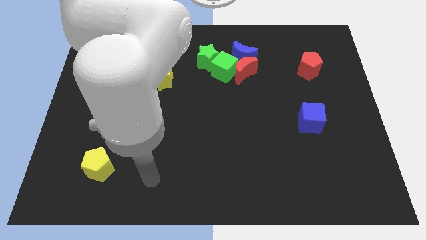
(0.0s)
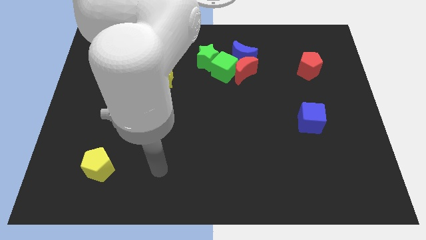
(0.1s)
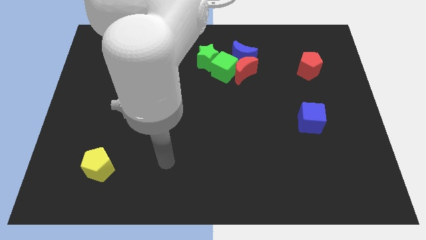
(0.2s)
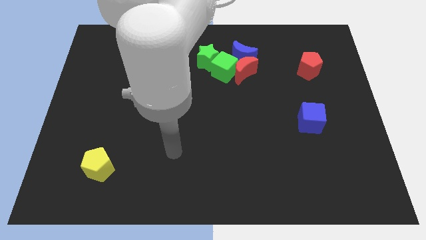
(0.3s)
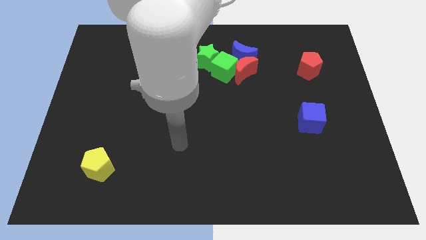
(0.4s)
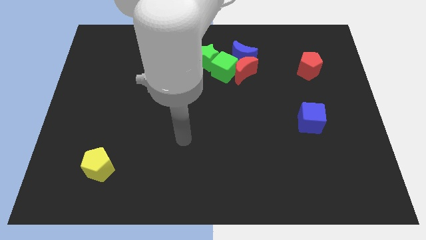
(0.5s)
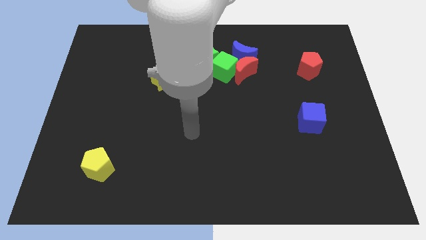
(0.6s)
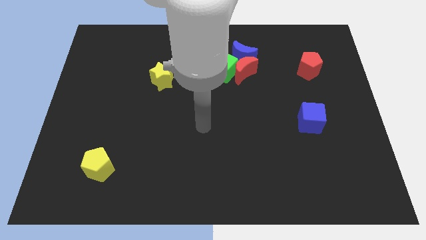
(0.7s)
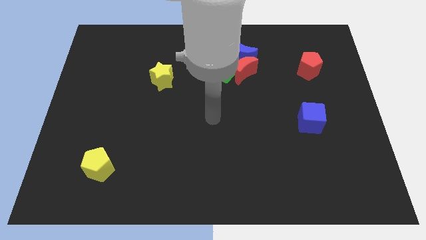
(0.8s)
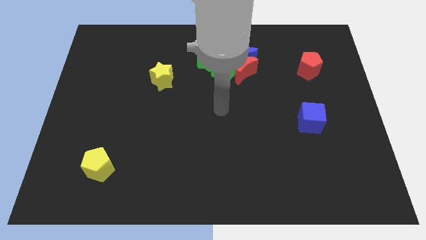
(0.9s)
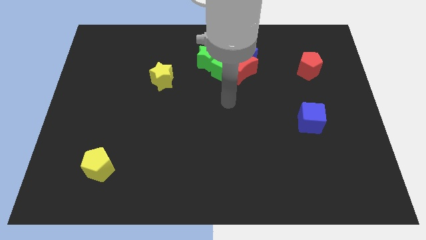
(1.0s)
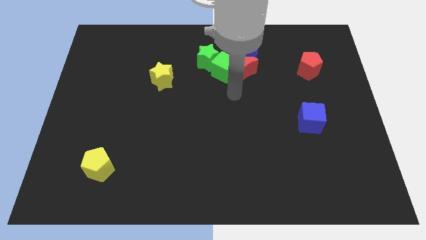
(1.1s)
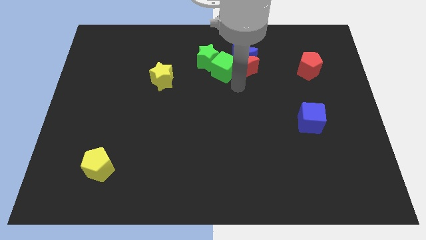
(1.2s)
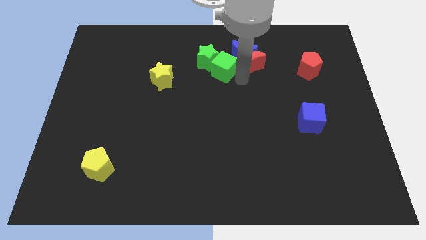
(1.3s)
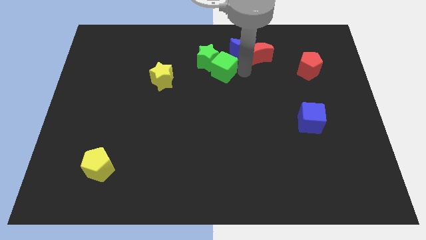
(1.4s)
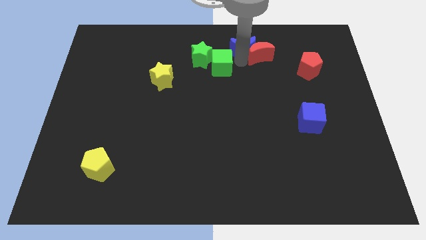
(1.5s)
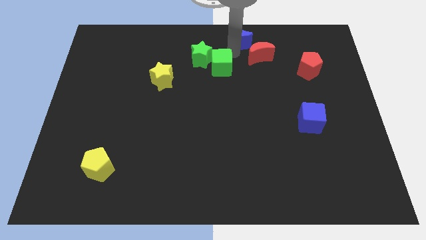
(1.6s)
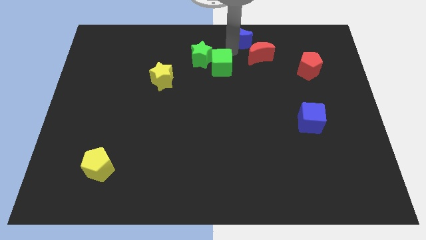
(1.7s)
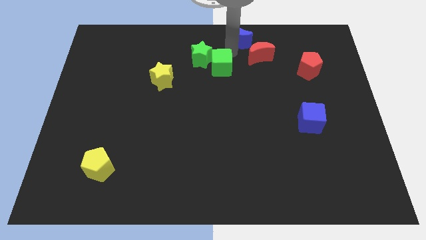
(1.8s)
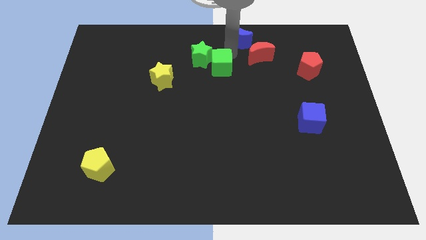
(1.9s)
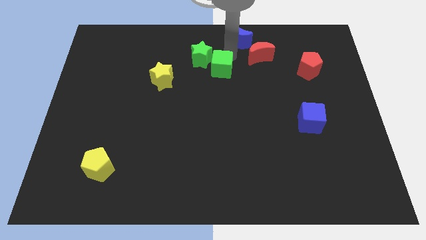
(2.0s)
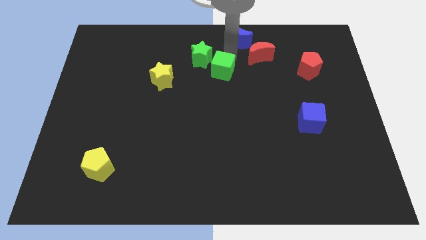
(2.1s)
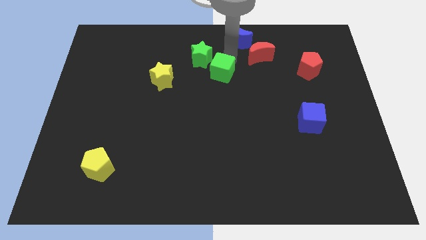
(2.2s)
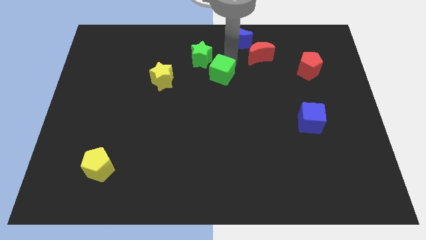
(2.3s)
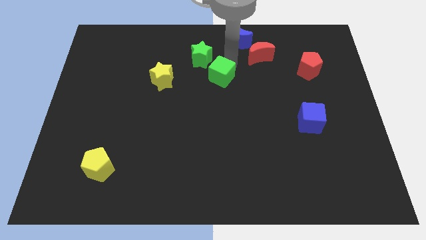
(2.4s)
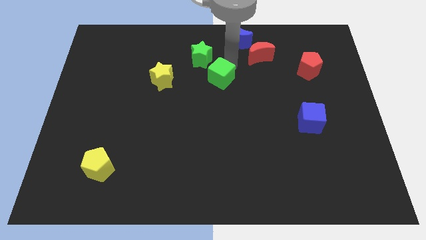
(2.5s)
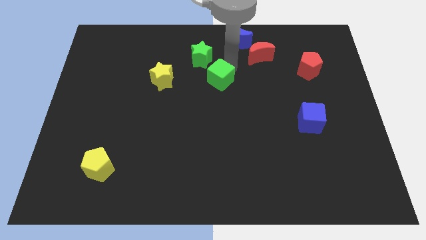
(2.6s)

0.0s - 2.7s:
move the green cube away from the red moon, green star, and blue moon

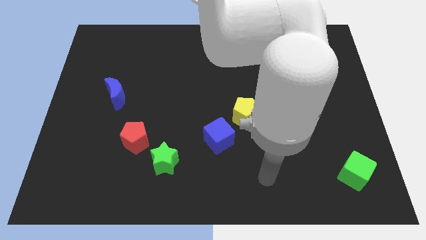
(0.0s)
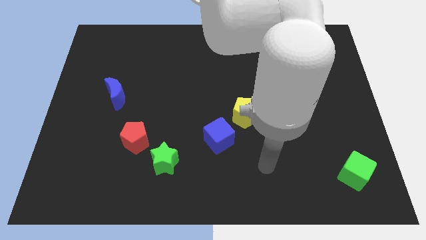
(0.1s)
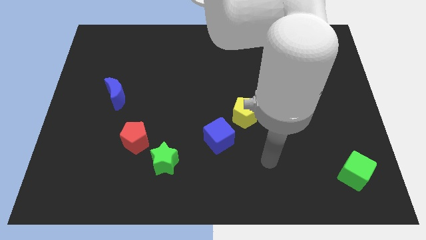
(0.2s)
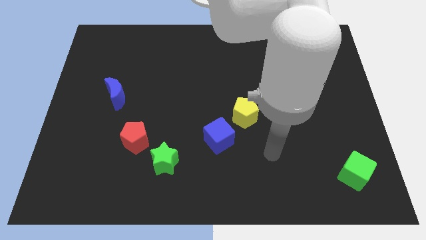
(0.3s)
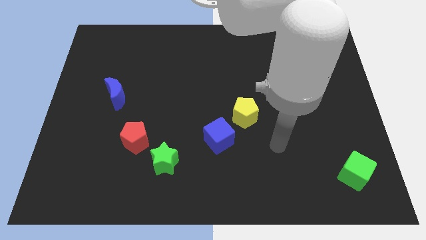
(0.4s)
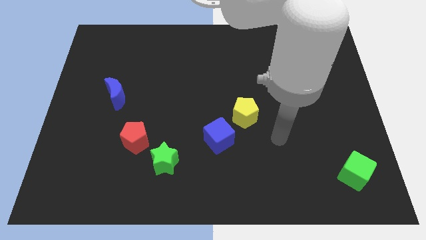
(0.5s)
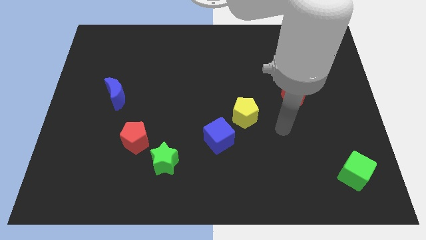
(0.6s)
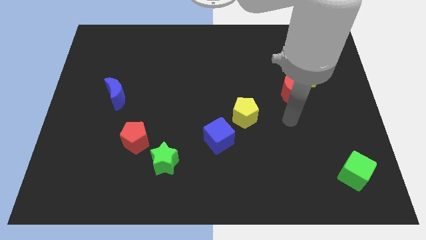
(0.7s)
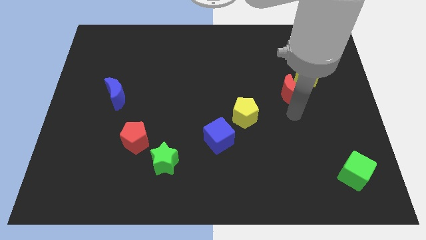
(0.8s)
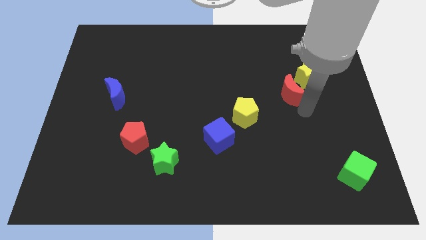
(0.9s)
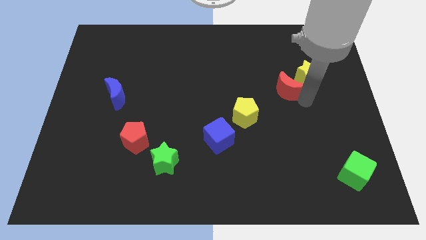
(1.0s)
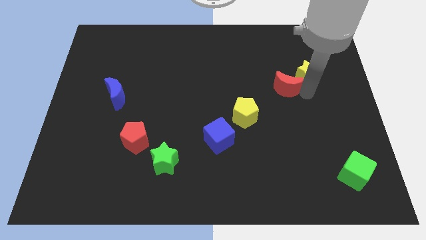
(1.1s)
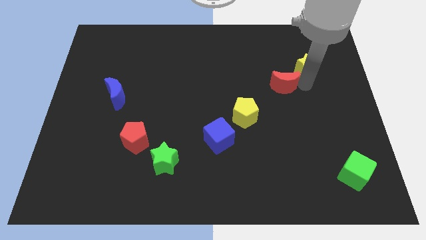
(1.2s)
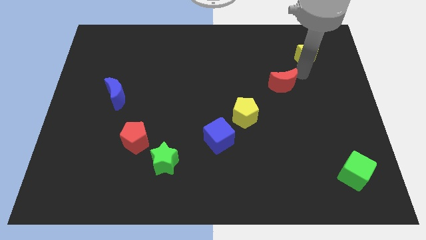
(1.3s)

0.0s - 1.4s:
move the red moon away from the yellow star

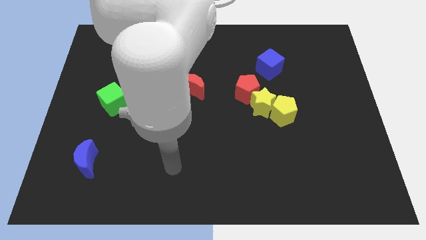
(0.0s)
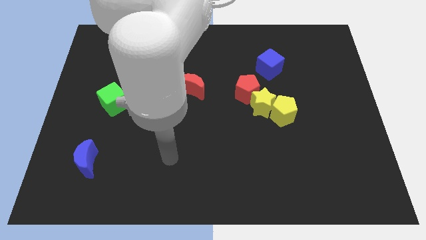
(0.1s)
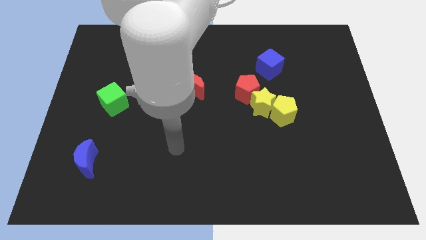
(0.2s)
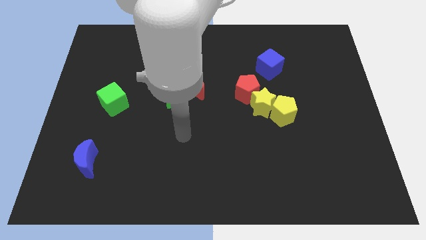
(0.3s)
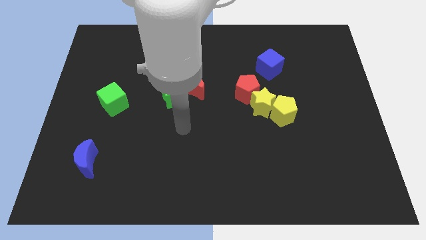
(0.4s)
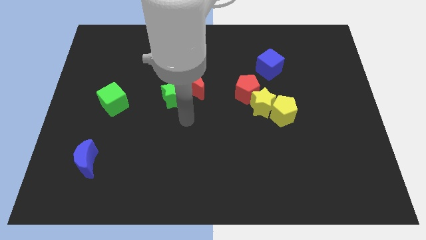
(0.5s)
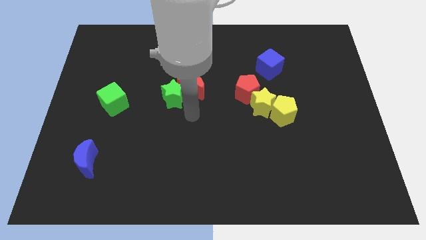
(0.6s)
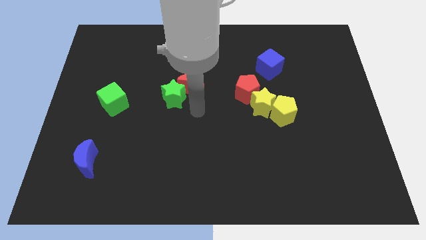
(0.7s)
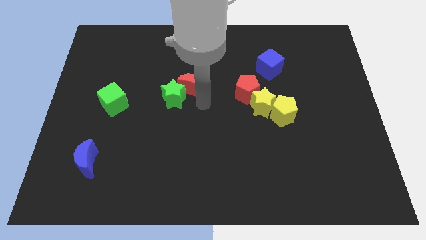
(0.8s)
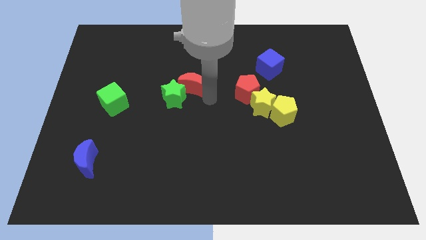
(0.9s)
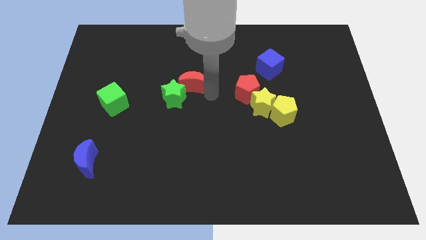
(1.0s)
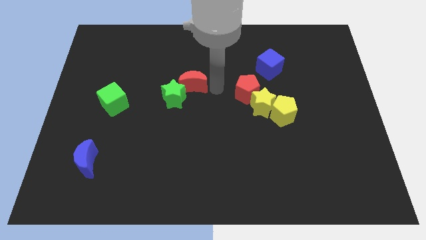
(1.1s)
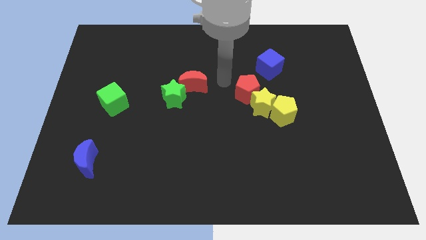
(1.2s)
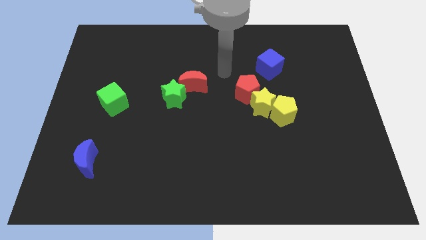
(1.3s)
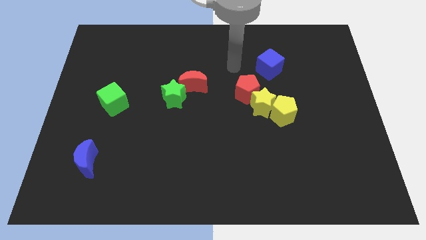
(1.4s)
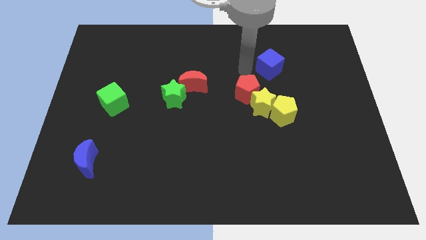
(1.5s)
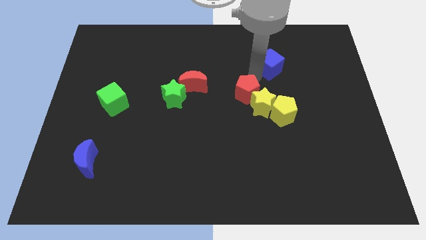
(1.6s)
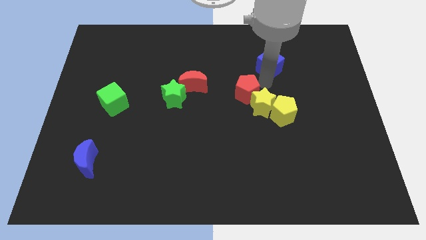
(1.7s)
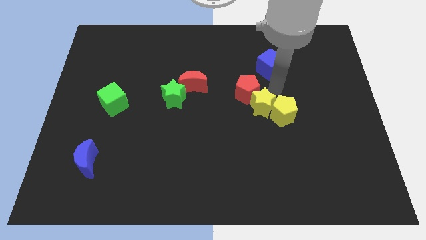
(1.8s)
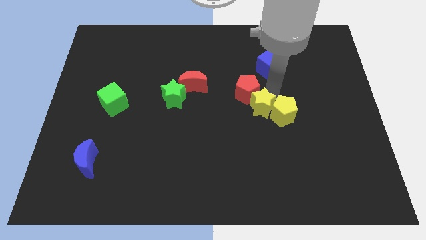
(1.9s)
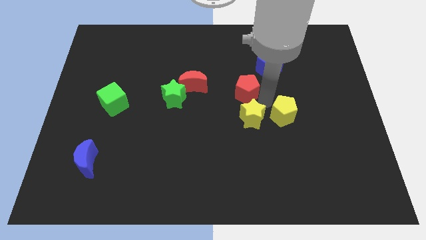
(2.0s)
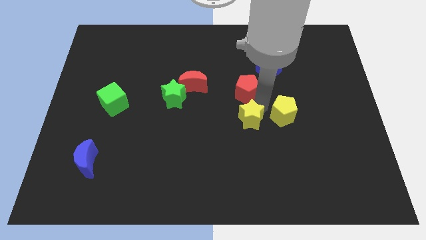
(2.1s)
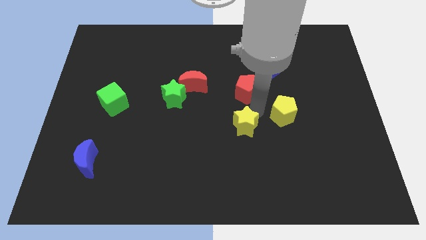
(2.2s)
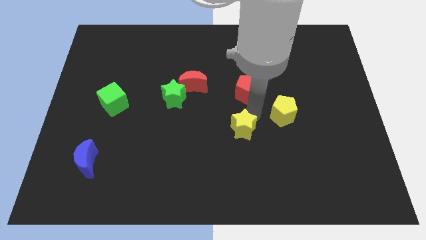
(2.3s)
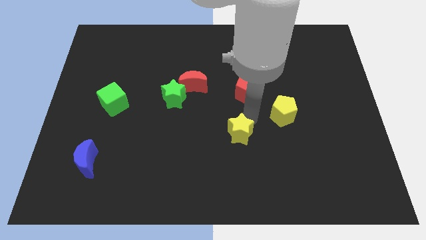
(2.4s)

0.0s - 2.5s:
separate the yellow star from the red pentagon and yellow pentagon

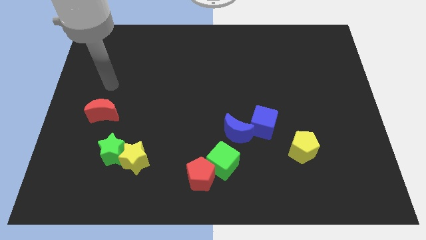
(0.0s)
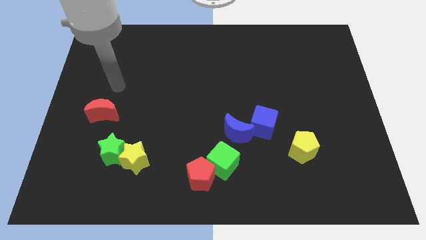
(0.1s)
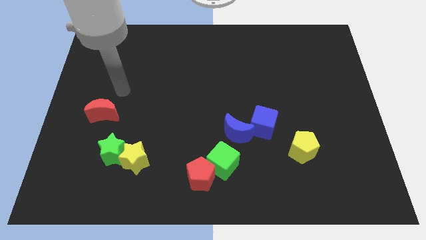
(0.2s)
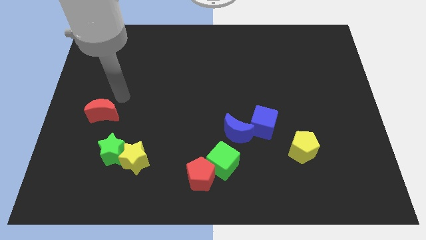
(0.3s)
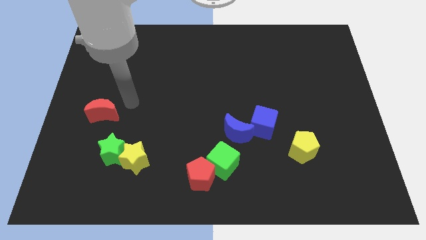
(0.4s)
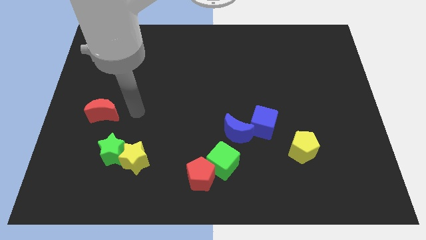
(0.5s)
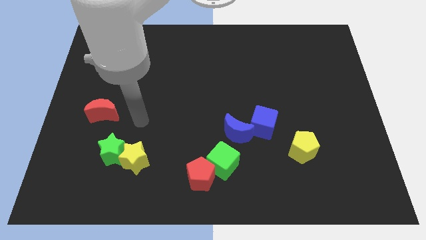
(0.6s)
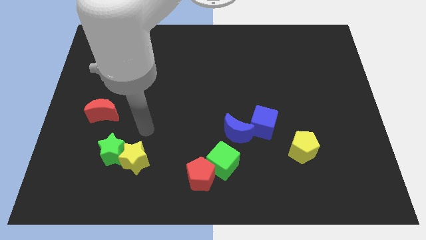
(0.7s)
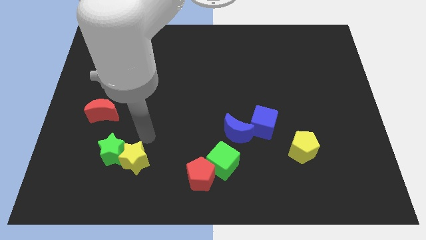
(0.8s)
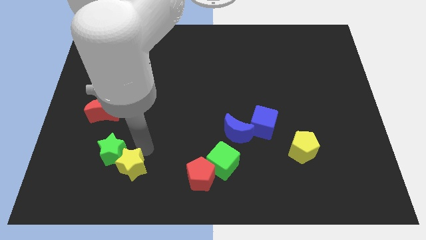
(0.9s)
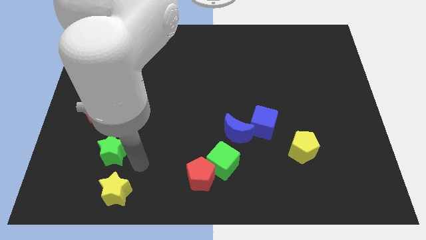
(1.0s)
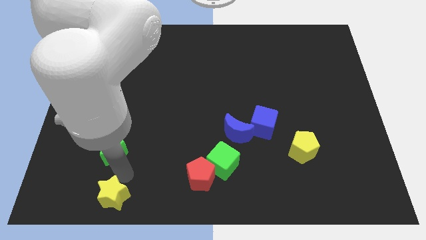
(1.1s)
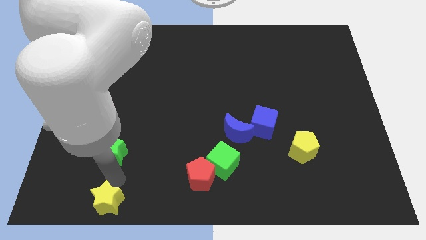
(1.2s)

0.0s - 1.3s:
pull the green star apart from the yellow star

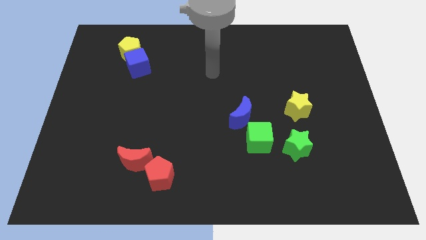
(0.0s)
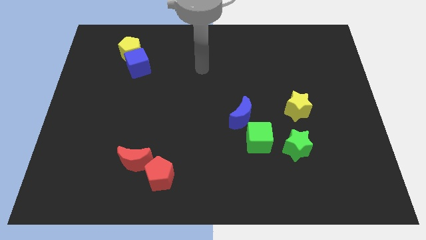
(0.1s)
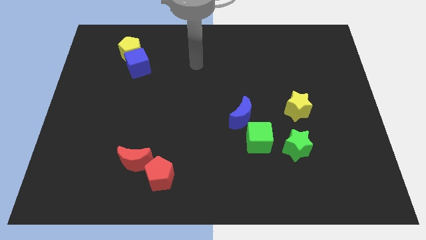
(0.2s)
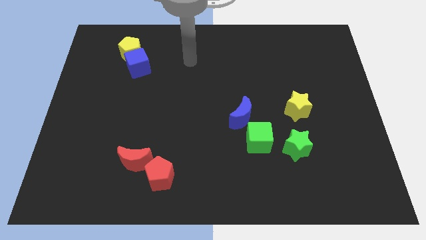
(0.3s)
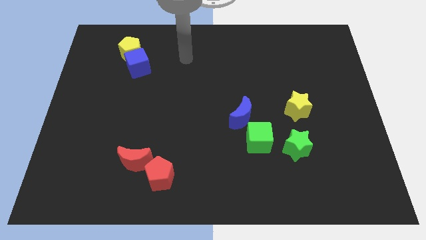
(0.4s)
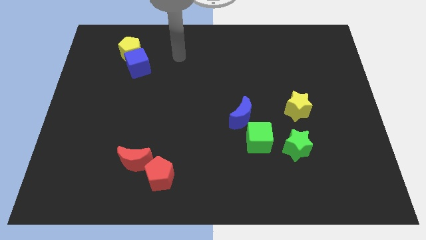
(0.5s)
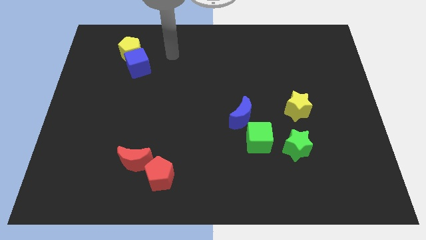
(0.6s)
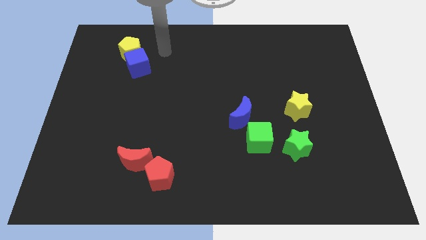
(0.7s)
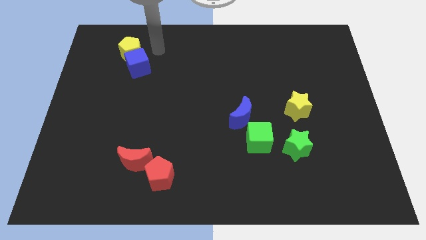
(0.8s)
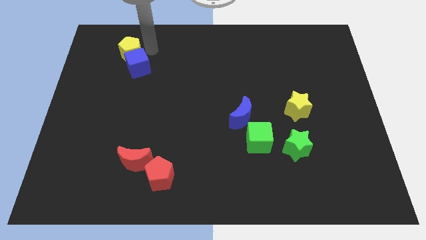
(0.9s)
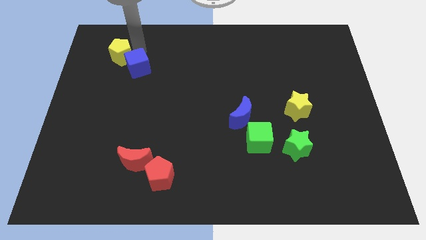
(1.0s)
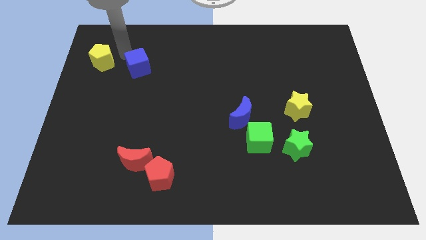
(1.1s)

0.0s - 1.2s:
separate the blue cube from the yellow pentagon

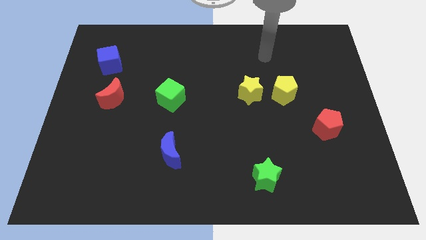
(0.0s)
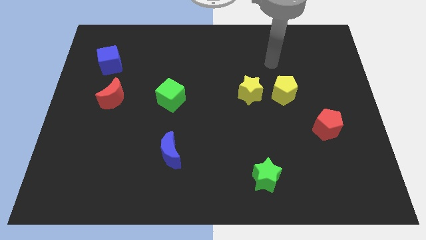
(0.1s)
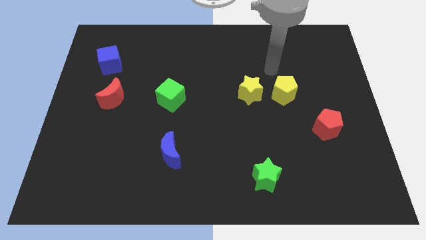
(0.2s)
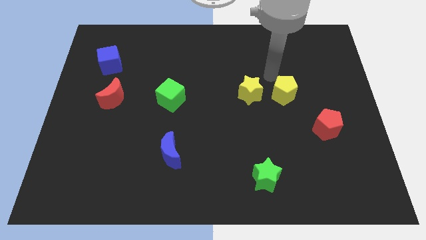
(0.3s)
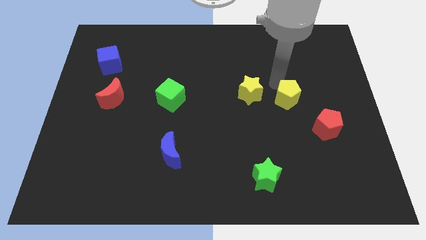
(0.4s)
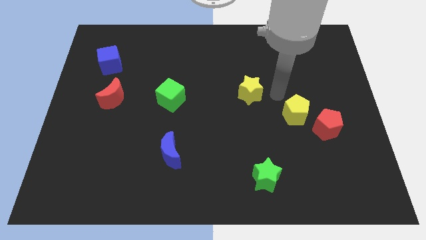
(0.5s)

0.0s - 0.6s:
pull the yellow star apart from the yellow pentagon
